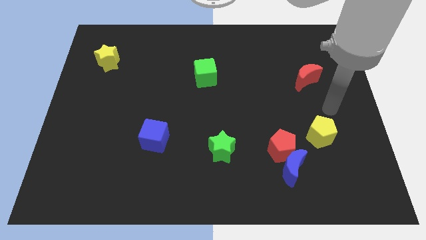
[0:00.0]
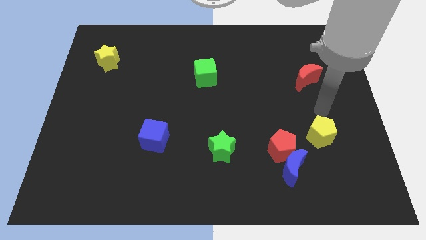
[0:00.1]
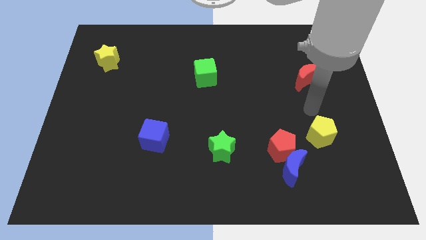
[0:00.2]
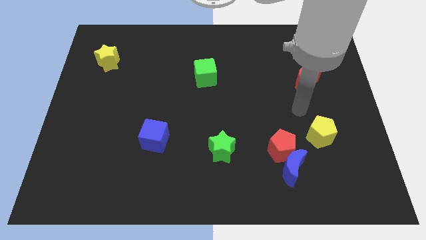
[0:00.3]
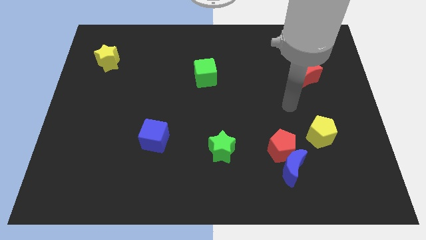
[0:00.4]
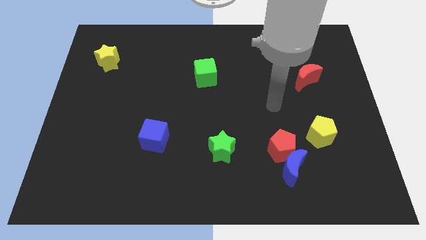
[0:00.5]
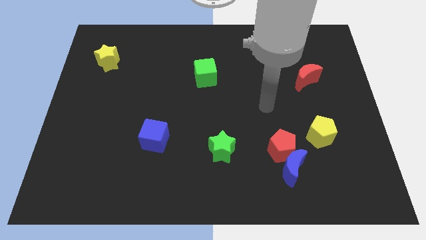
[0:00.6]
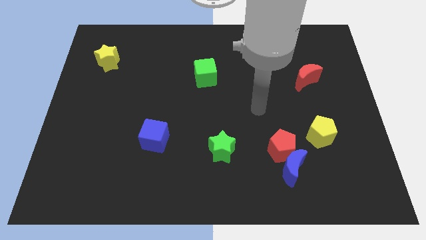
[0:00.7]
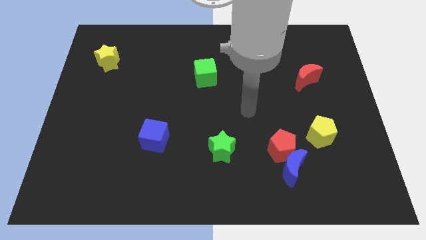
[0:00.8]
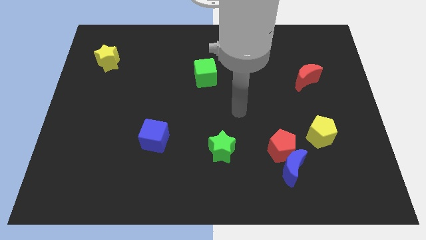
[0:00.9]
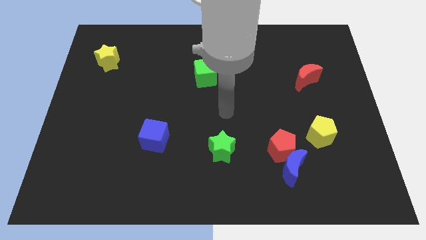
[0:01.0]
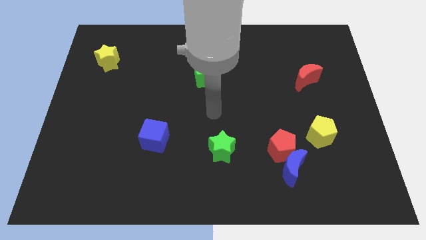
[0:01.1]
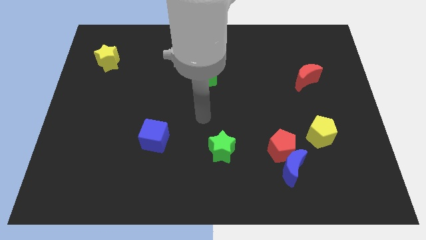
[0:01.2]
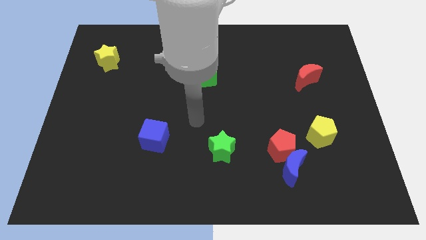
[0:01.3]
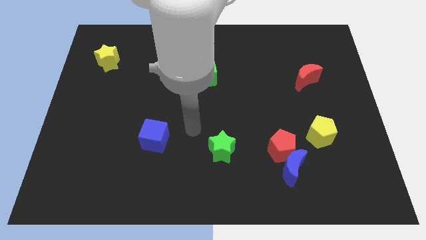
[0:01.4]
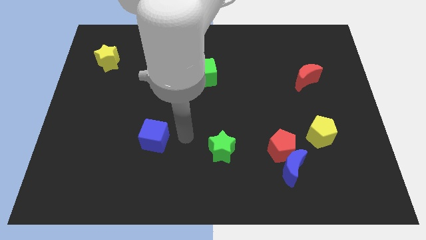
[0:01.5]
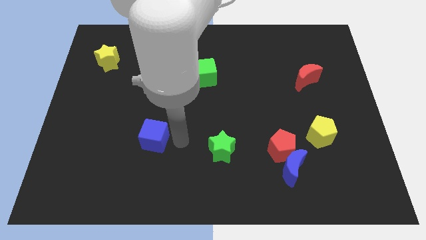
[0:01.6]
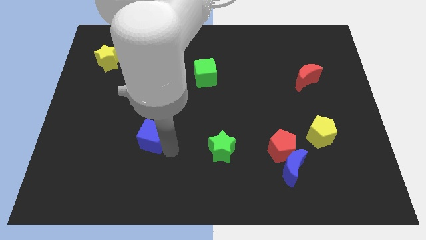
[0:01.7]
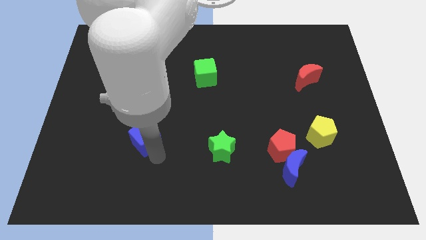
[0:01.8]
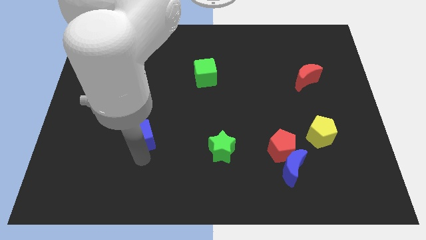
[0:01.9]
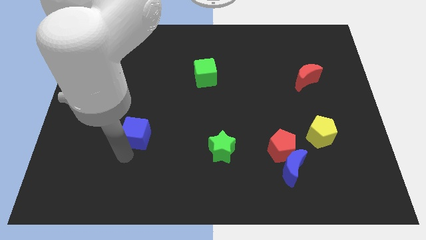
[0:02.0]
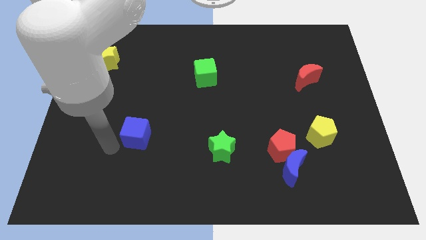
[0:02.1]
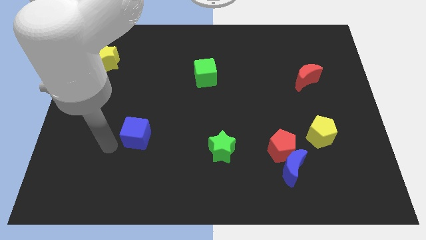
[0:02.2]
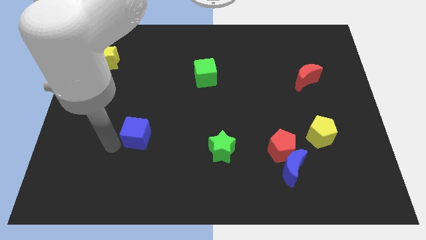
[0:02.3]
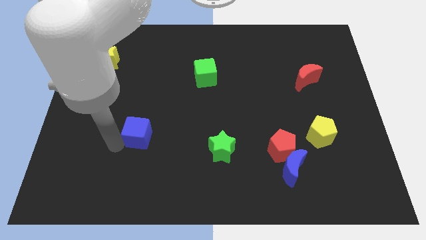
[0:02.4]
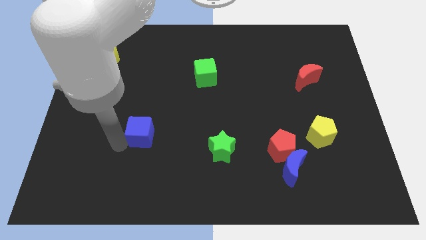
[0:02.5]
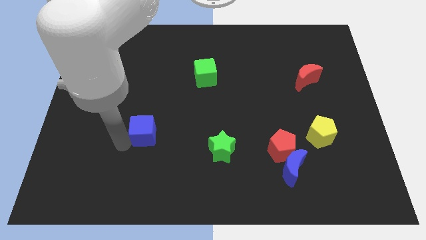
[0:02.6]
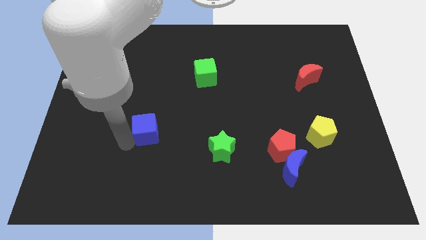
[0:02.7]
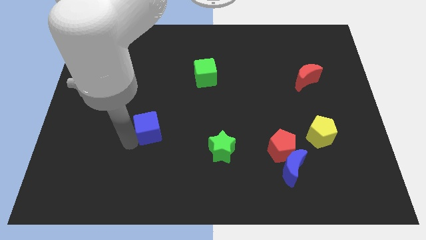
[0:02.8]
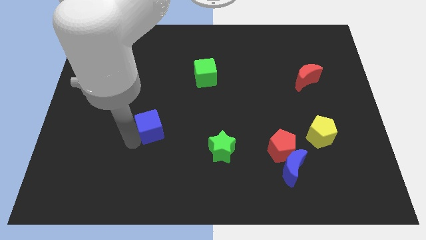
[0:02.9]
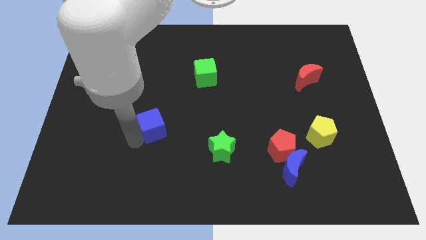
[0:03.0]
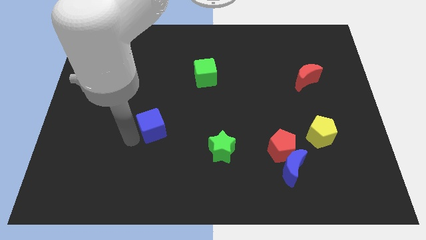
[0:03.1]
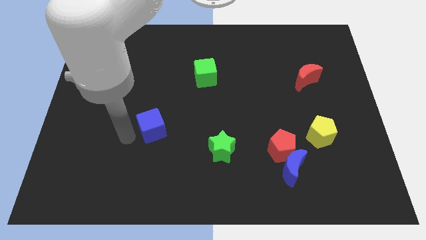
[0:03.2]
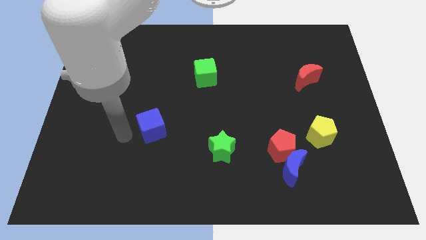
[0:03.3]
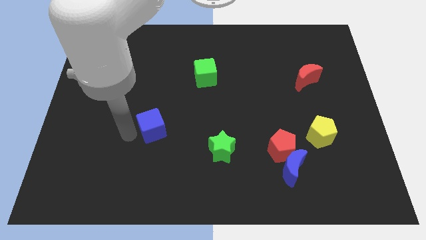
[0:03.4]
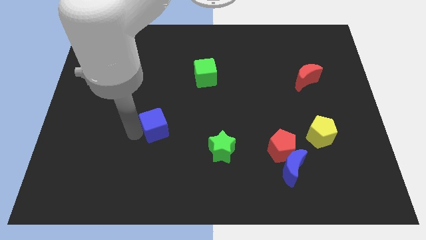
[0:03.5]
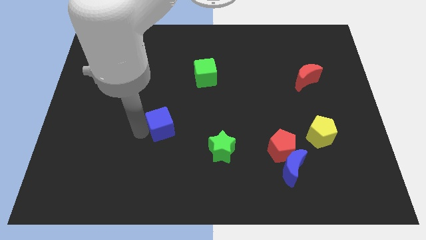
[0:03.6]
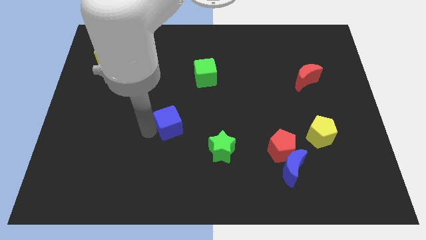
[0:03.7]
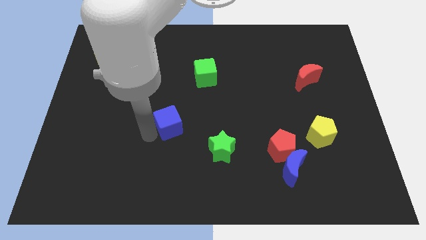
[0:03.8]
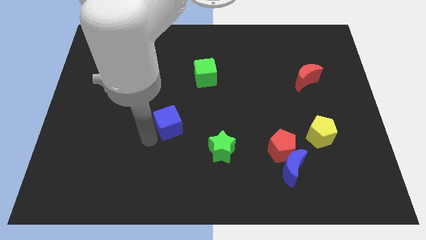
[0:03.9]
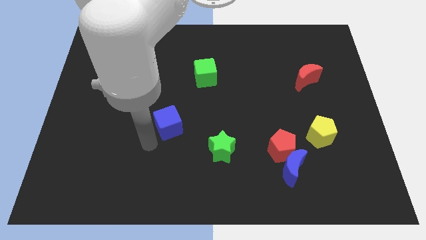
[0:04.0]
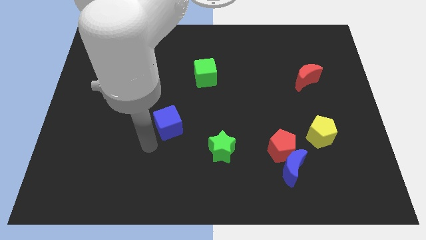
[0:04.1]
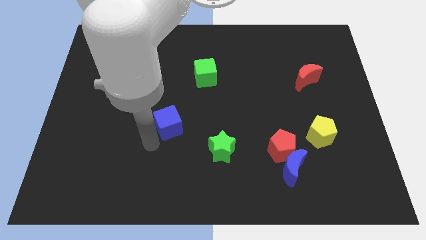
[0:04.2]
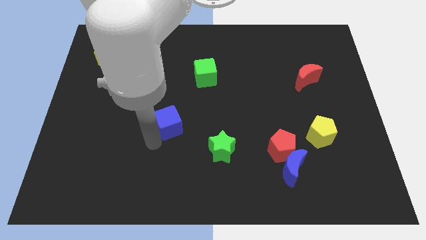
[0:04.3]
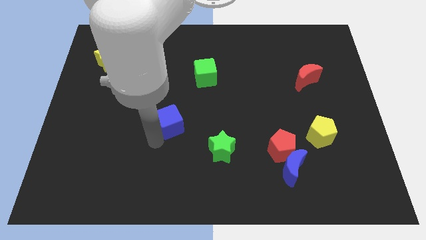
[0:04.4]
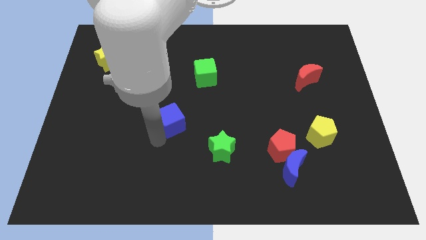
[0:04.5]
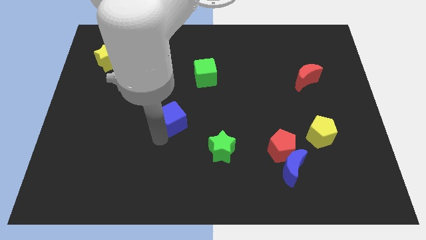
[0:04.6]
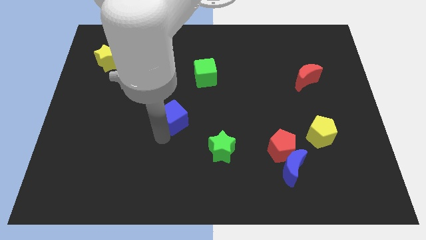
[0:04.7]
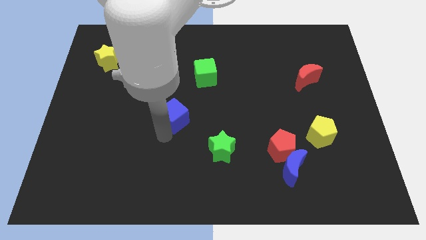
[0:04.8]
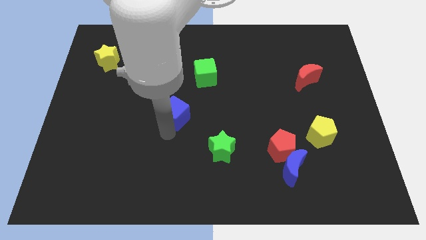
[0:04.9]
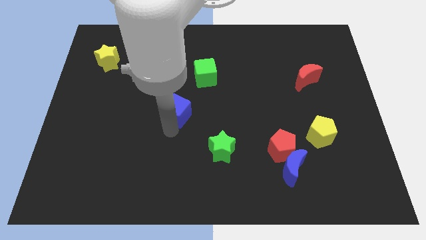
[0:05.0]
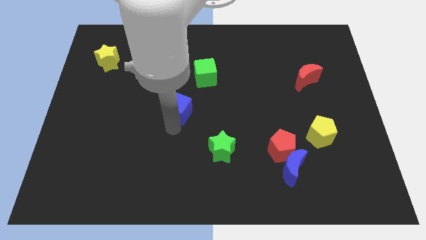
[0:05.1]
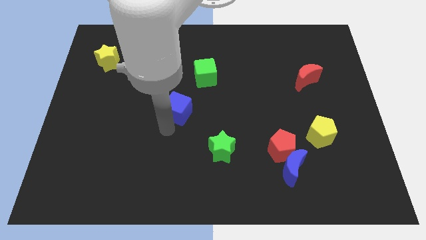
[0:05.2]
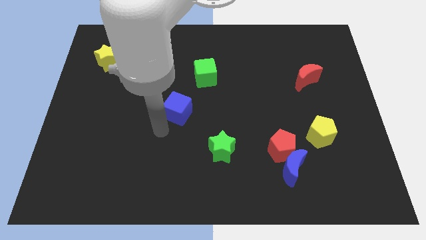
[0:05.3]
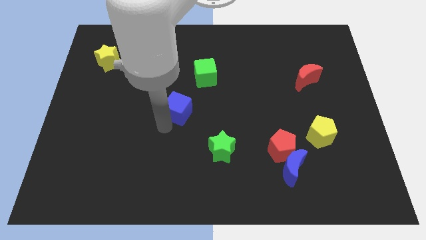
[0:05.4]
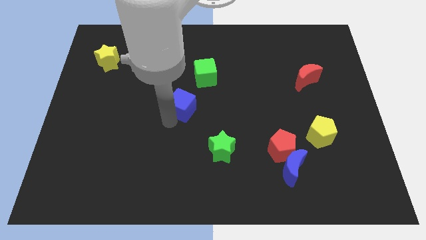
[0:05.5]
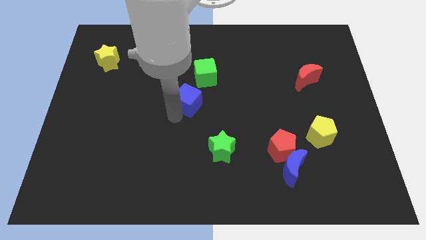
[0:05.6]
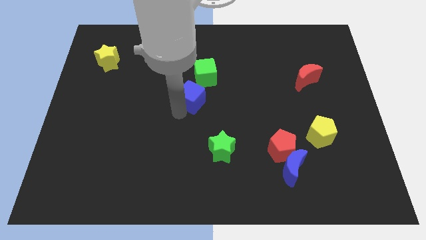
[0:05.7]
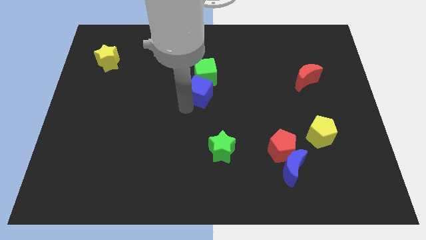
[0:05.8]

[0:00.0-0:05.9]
slide the blue cube next to the green cube
